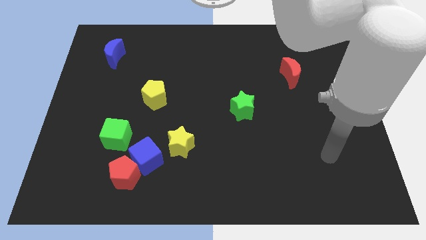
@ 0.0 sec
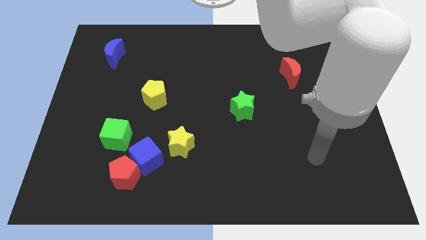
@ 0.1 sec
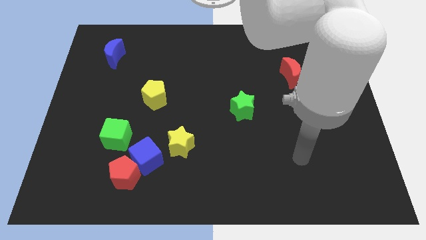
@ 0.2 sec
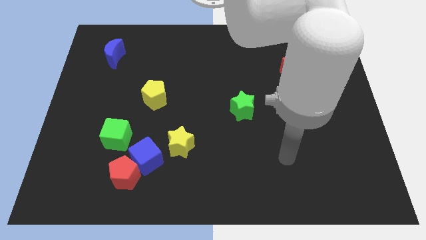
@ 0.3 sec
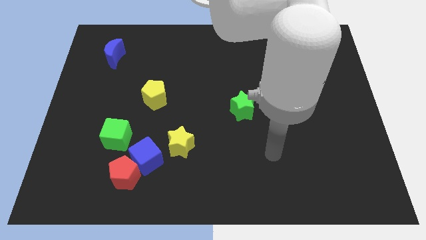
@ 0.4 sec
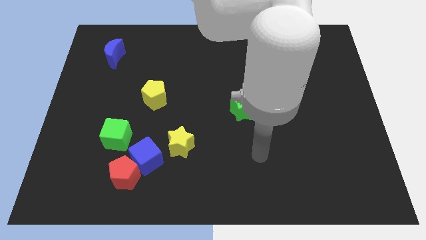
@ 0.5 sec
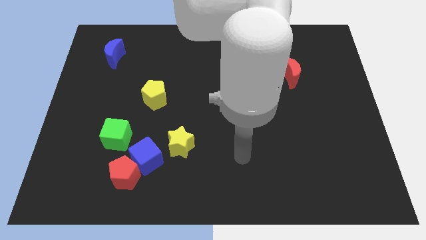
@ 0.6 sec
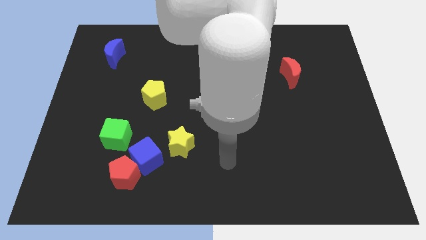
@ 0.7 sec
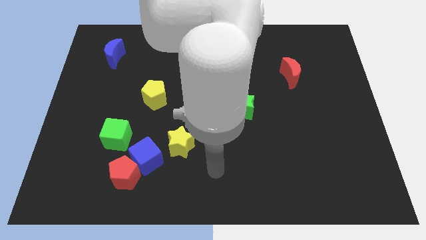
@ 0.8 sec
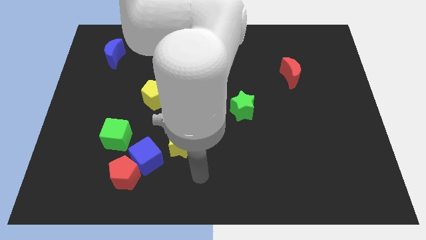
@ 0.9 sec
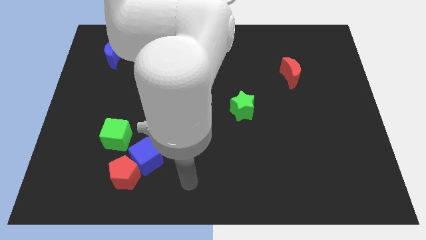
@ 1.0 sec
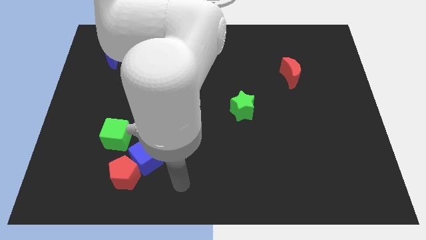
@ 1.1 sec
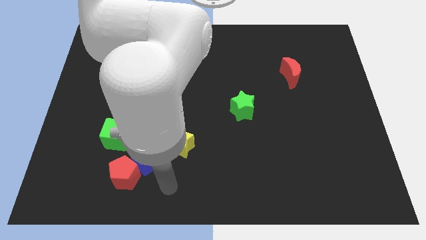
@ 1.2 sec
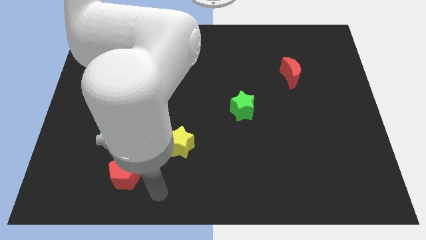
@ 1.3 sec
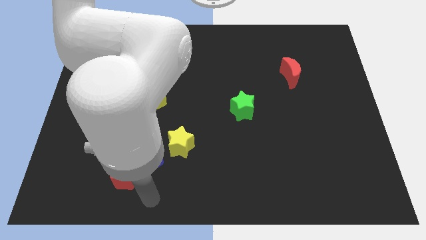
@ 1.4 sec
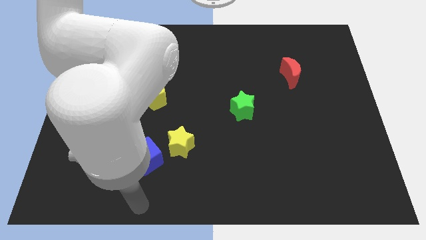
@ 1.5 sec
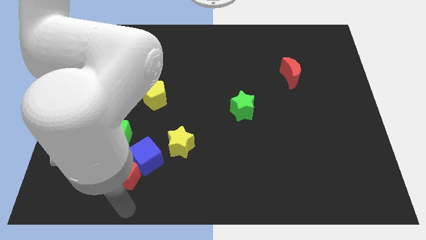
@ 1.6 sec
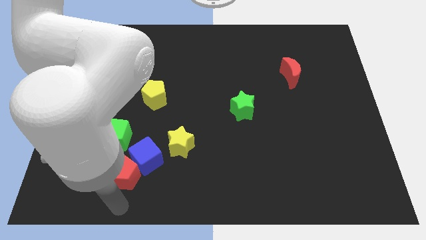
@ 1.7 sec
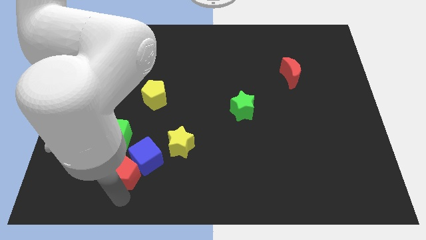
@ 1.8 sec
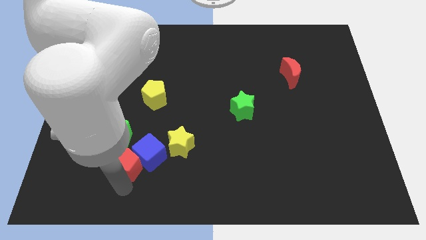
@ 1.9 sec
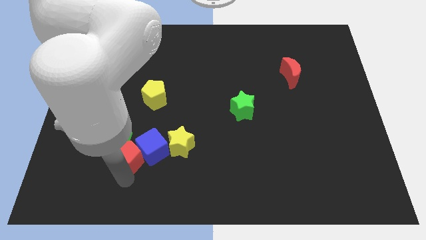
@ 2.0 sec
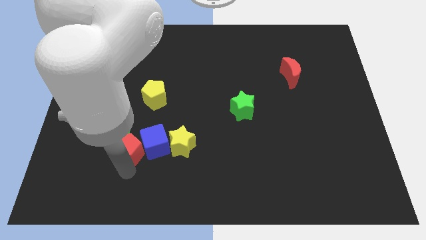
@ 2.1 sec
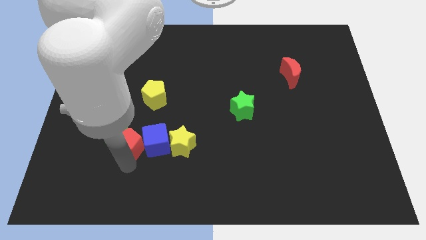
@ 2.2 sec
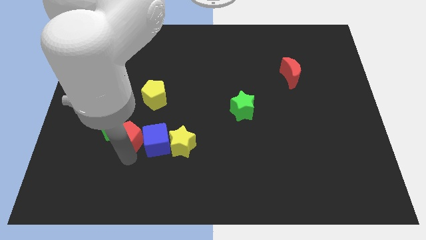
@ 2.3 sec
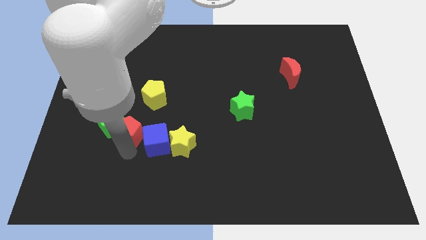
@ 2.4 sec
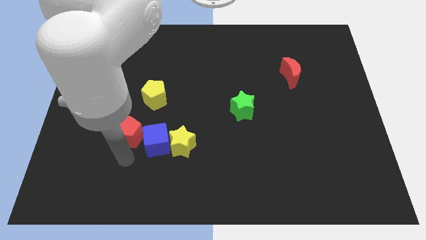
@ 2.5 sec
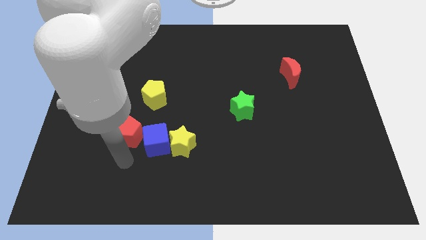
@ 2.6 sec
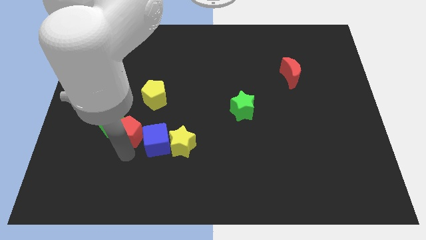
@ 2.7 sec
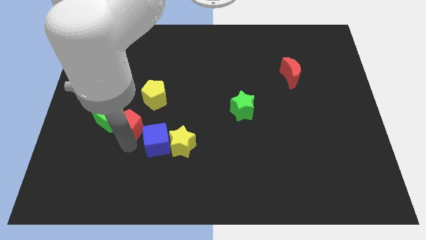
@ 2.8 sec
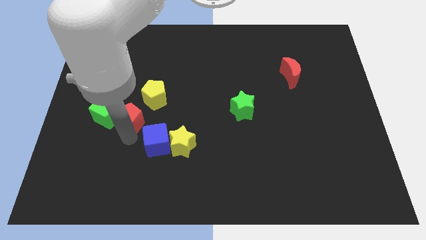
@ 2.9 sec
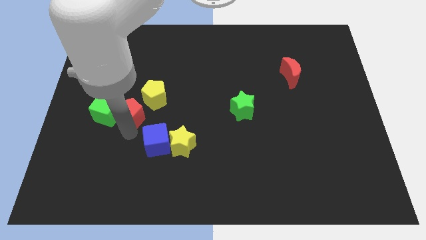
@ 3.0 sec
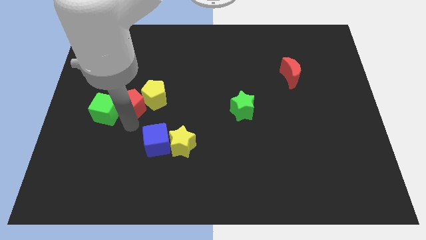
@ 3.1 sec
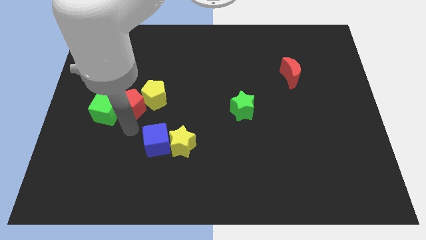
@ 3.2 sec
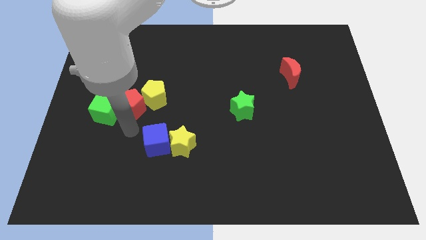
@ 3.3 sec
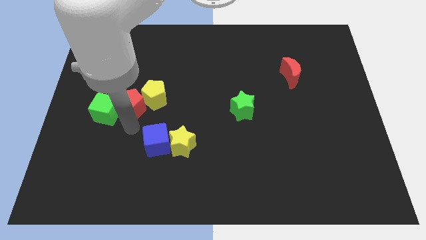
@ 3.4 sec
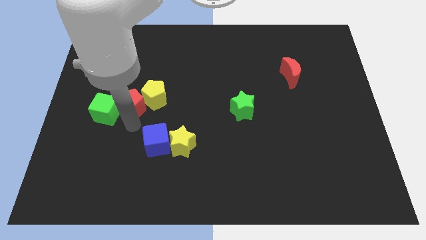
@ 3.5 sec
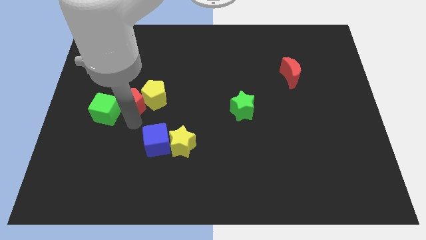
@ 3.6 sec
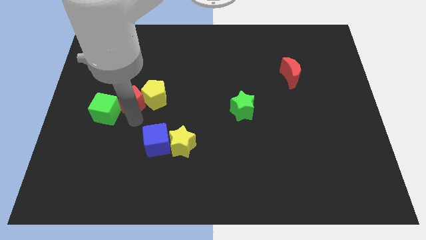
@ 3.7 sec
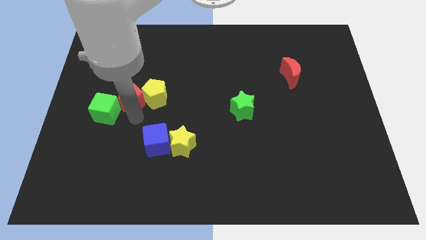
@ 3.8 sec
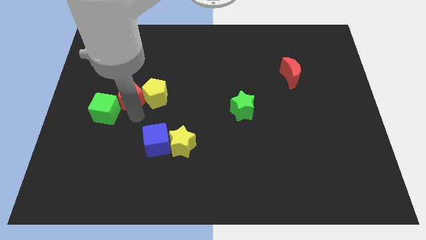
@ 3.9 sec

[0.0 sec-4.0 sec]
slide the red pentagon up

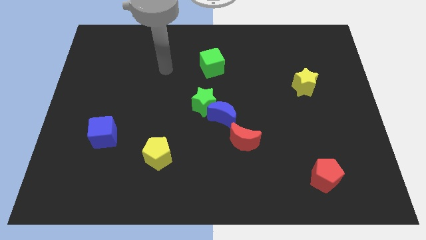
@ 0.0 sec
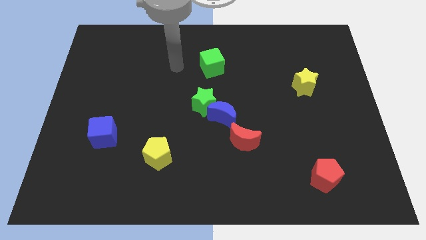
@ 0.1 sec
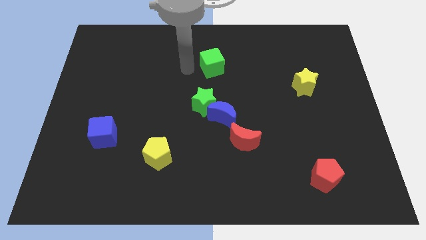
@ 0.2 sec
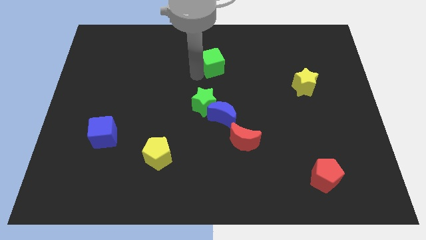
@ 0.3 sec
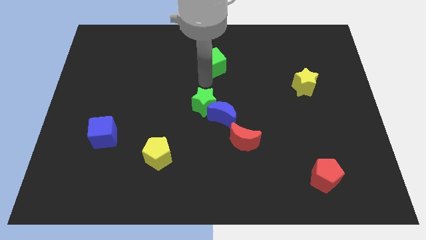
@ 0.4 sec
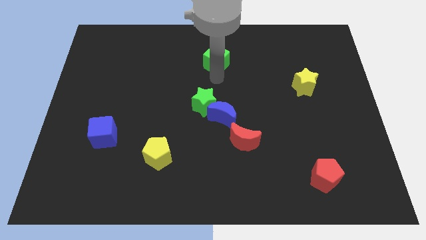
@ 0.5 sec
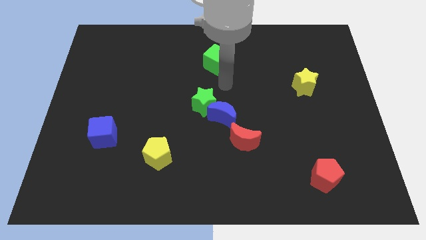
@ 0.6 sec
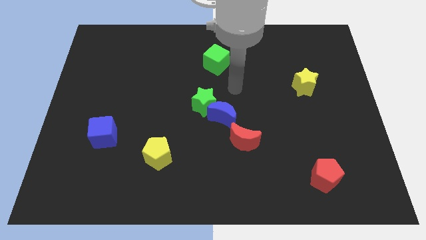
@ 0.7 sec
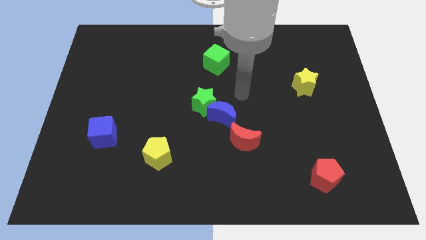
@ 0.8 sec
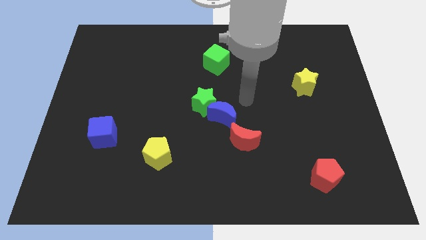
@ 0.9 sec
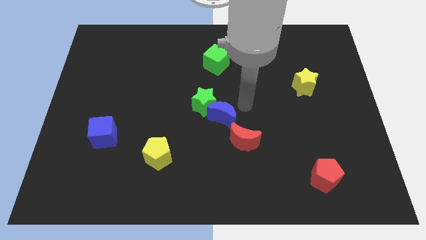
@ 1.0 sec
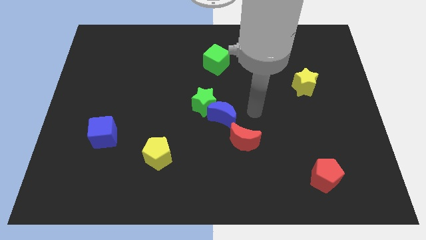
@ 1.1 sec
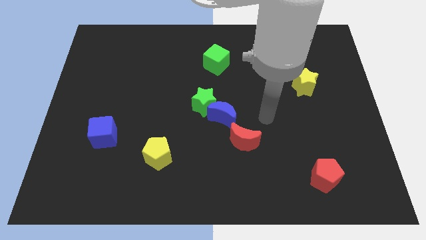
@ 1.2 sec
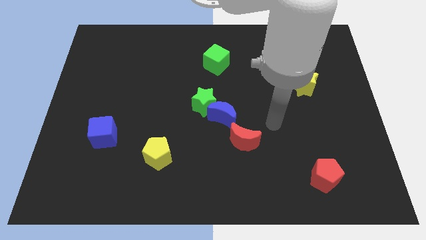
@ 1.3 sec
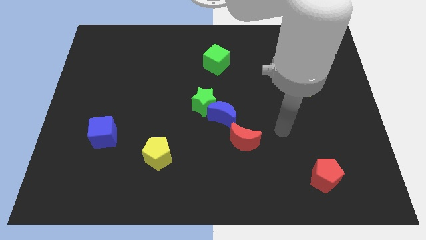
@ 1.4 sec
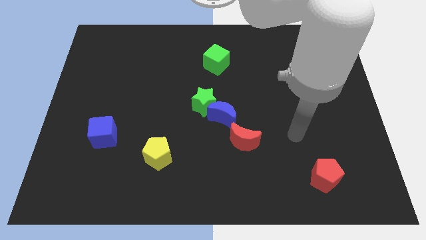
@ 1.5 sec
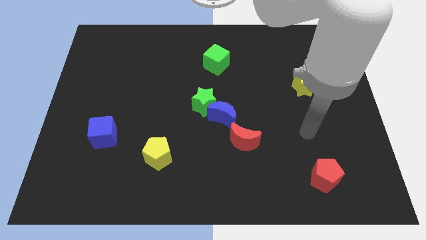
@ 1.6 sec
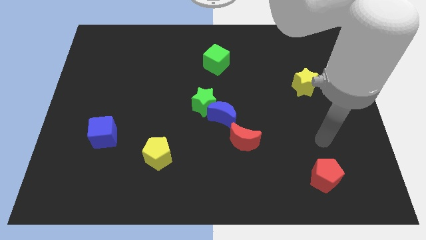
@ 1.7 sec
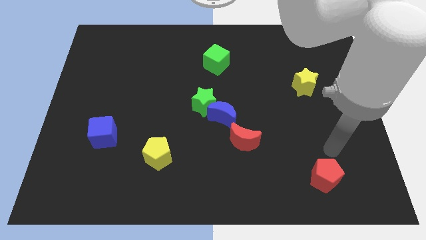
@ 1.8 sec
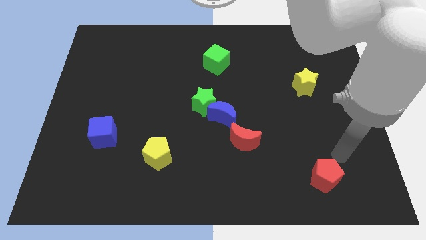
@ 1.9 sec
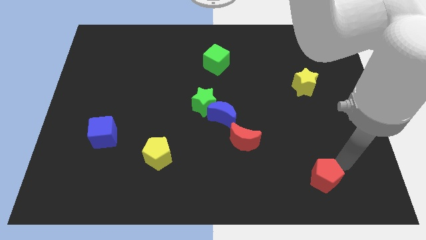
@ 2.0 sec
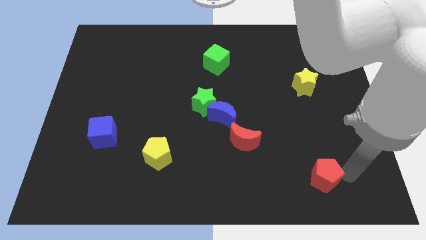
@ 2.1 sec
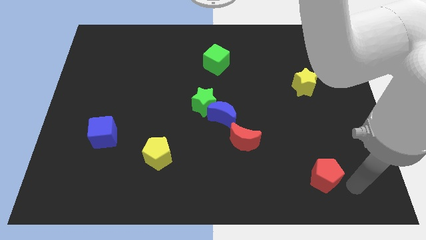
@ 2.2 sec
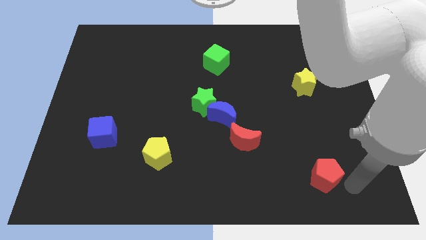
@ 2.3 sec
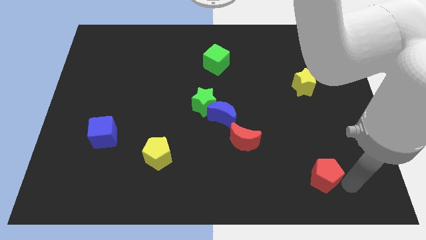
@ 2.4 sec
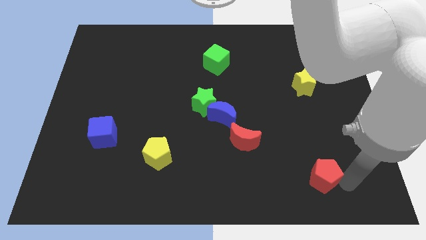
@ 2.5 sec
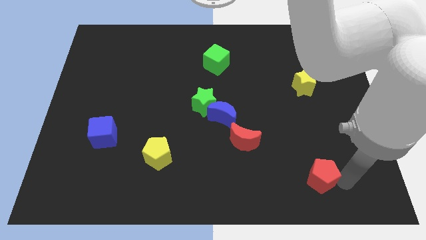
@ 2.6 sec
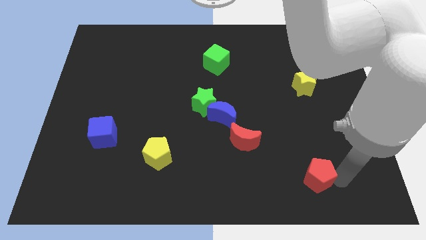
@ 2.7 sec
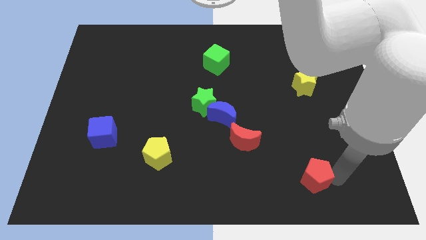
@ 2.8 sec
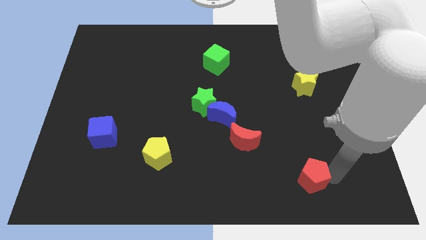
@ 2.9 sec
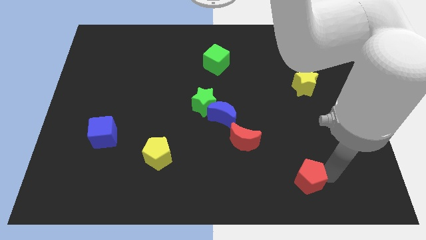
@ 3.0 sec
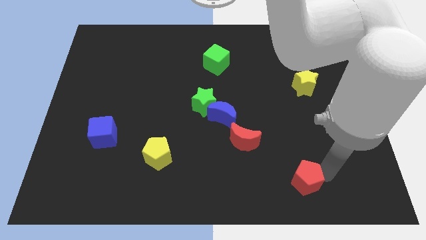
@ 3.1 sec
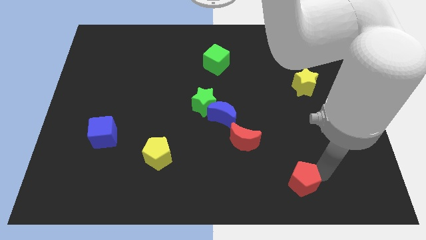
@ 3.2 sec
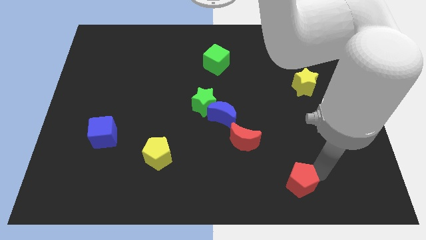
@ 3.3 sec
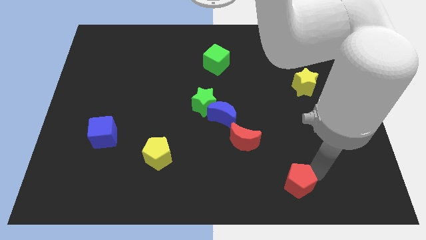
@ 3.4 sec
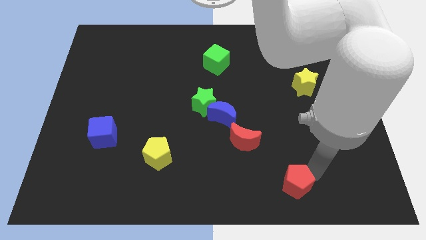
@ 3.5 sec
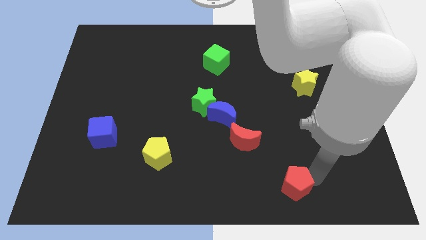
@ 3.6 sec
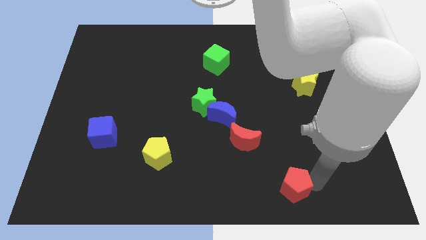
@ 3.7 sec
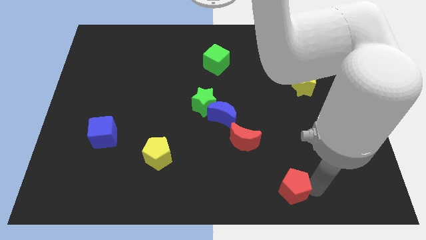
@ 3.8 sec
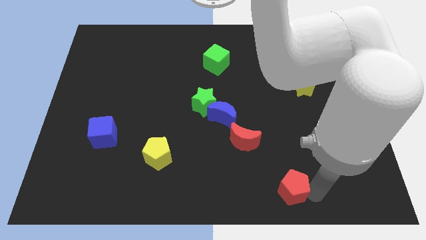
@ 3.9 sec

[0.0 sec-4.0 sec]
slightly move the red pentagon left
